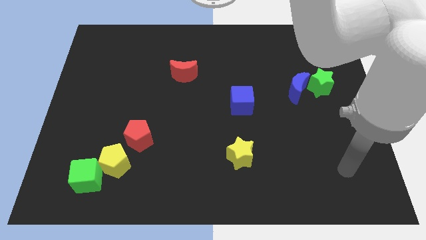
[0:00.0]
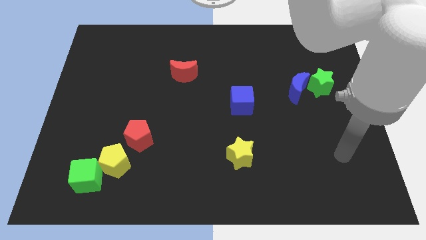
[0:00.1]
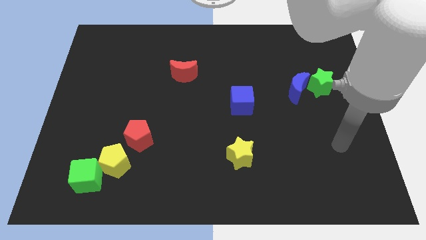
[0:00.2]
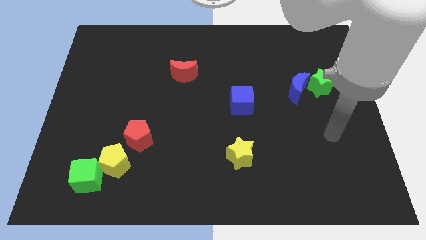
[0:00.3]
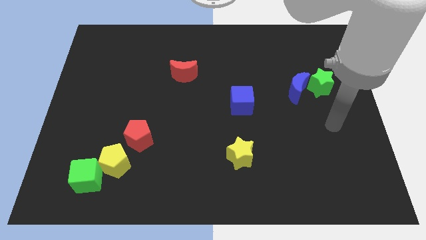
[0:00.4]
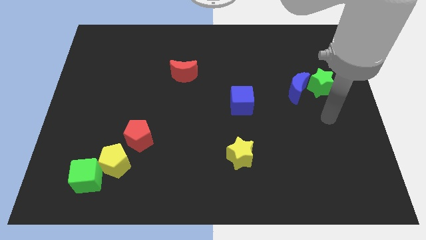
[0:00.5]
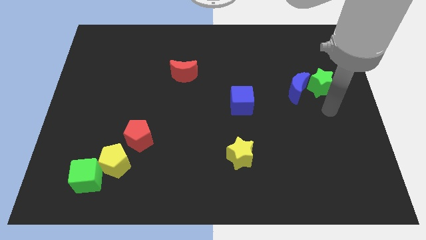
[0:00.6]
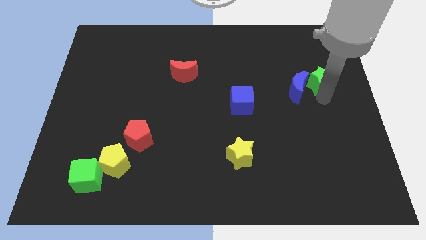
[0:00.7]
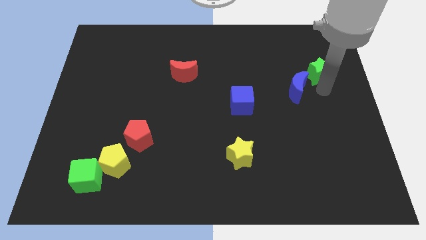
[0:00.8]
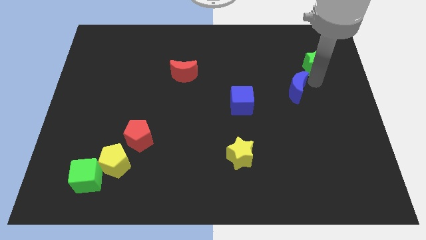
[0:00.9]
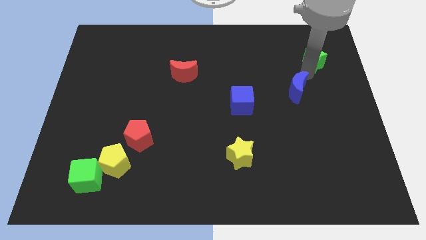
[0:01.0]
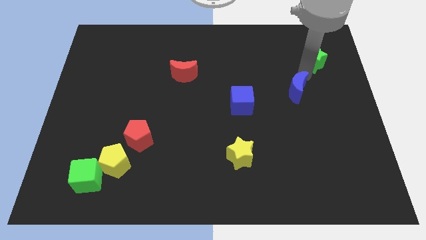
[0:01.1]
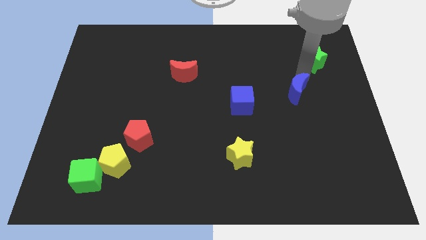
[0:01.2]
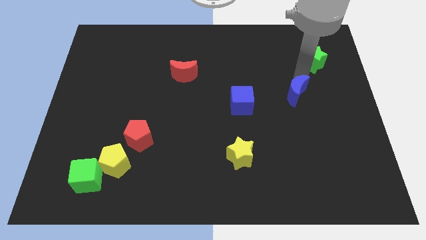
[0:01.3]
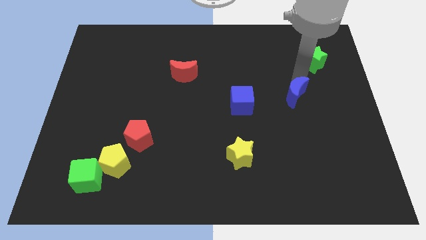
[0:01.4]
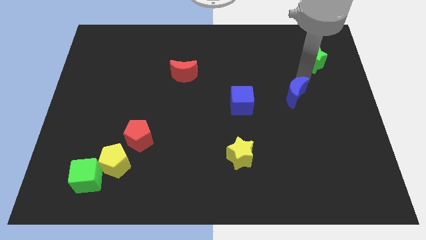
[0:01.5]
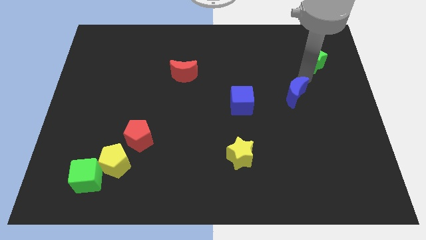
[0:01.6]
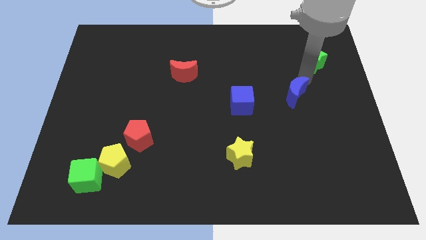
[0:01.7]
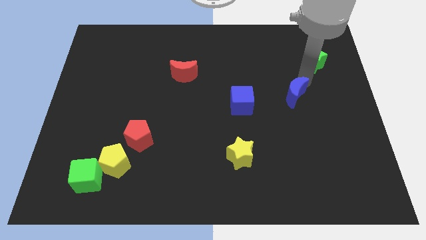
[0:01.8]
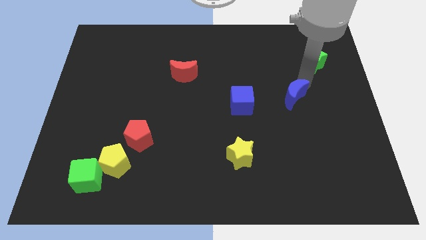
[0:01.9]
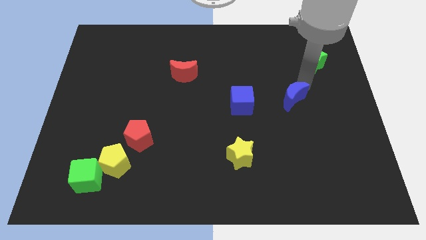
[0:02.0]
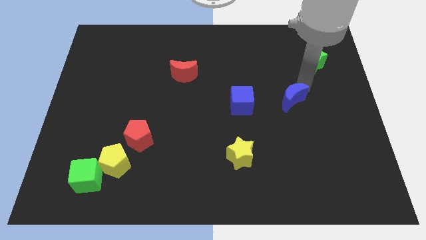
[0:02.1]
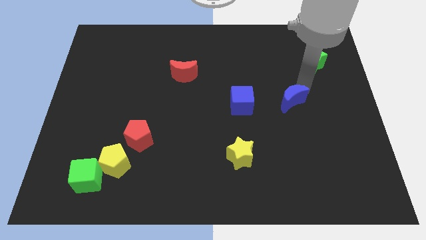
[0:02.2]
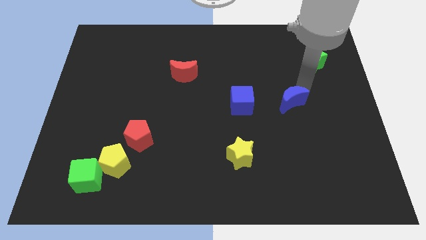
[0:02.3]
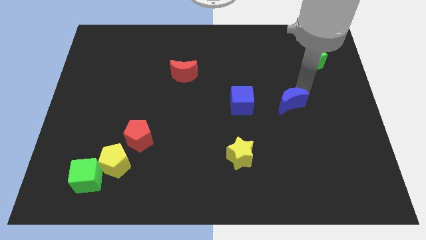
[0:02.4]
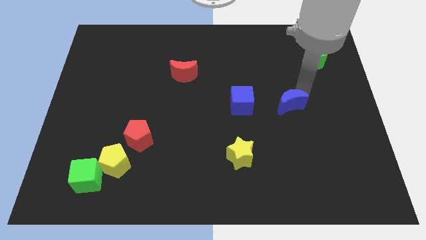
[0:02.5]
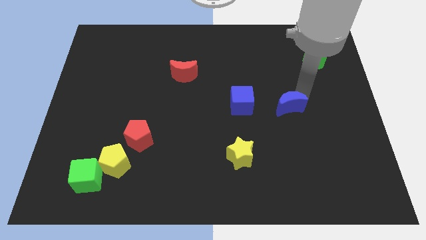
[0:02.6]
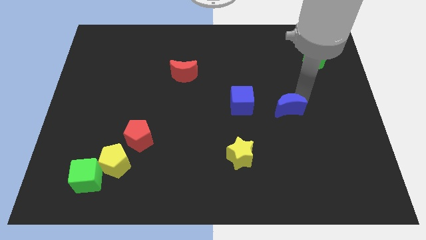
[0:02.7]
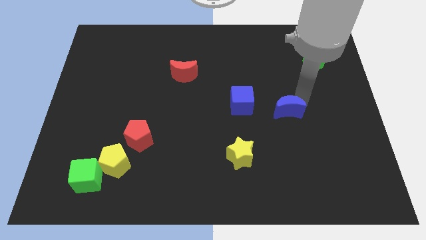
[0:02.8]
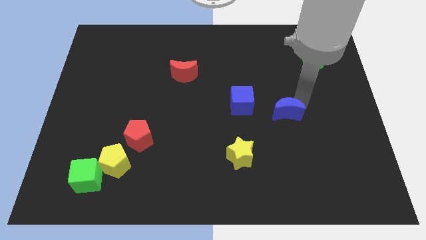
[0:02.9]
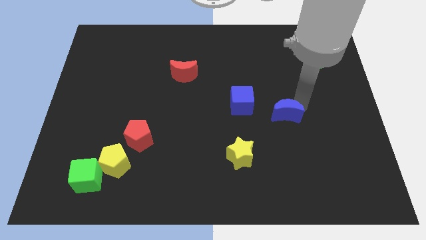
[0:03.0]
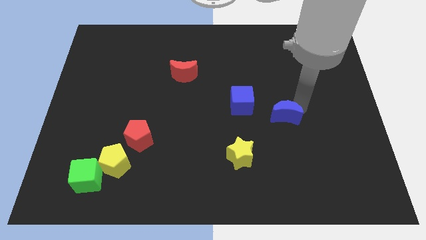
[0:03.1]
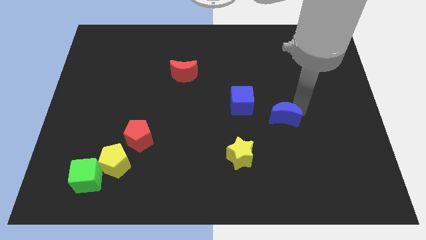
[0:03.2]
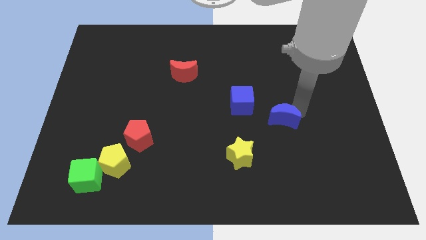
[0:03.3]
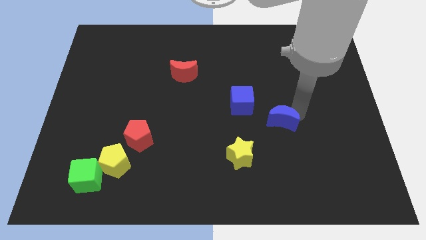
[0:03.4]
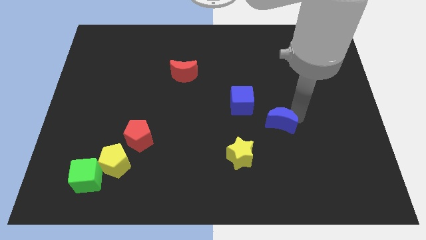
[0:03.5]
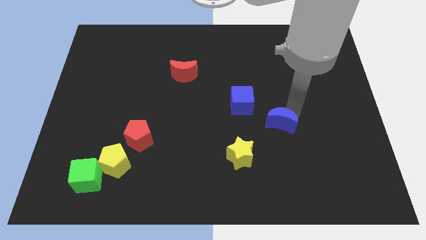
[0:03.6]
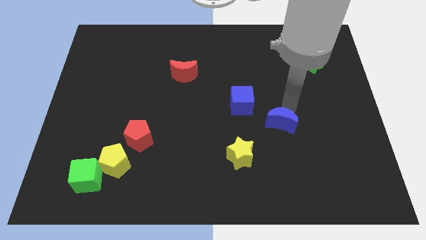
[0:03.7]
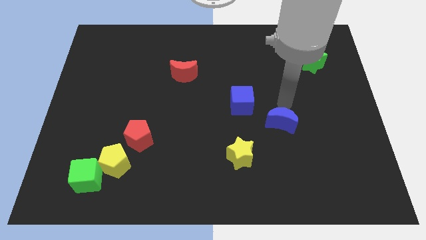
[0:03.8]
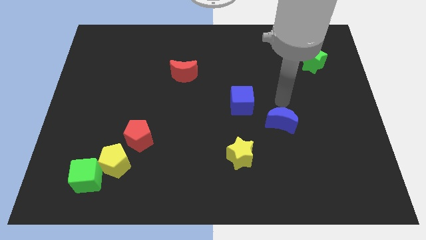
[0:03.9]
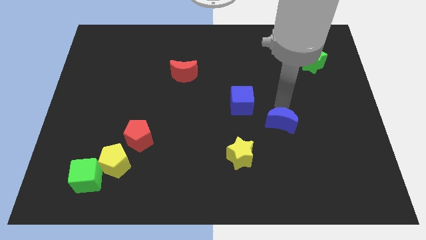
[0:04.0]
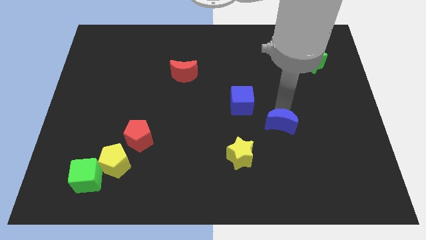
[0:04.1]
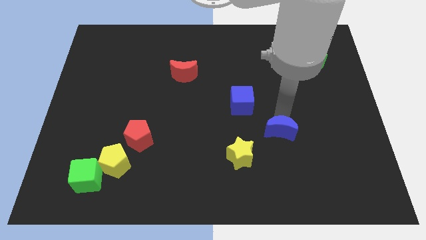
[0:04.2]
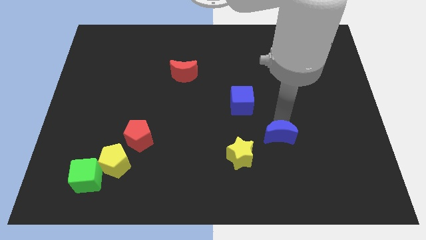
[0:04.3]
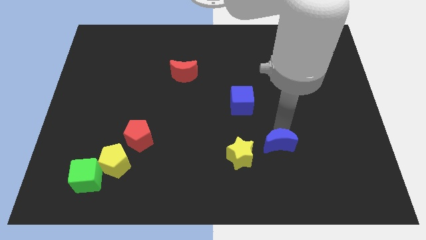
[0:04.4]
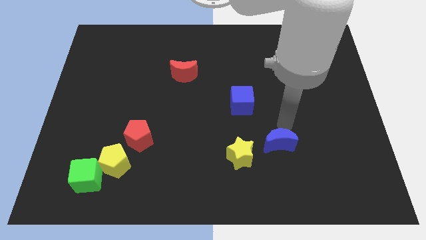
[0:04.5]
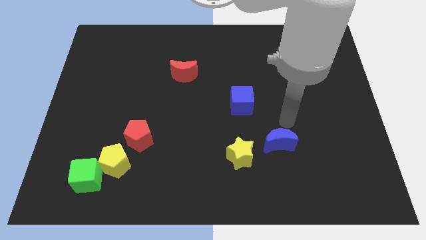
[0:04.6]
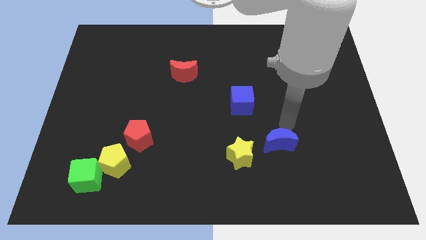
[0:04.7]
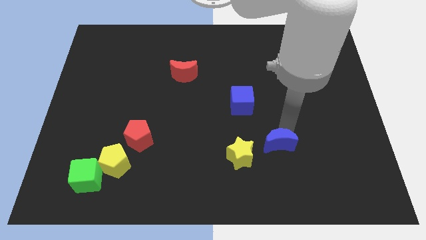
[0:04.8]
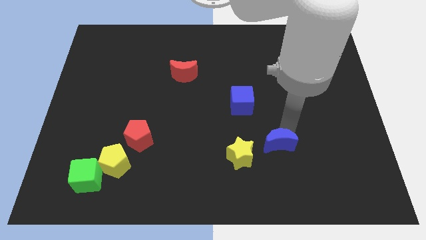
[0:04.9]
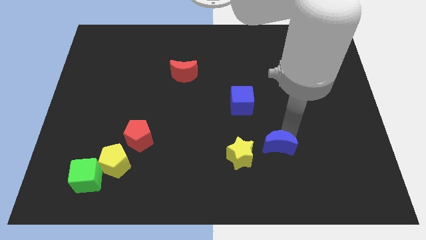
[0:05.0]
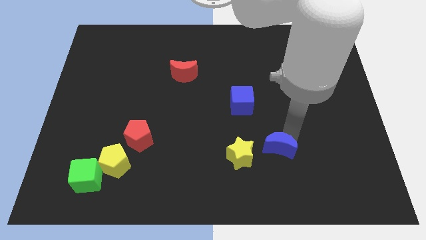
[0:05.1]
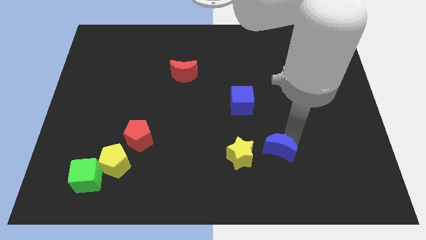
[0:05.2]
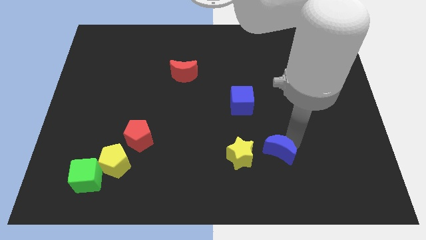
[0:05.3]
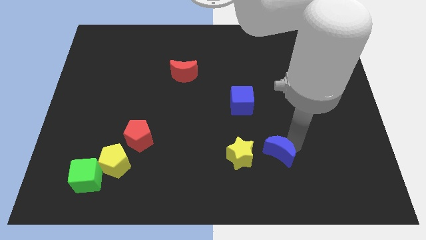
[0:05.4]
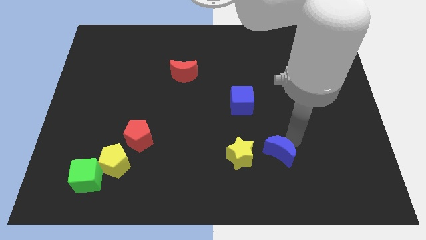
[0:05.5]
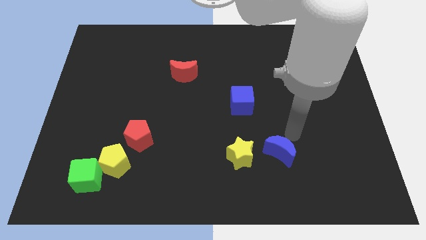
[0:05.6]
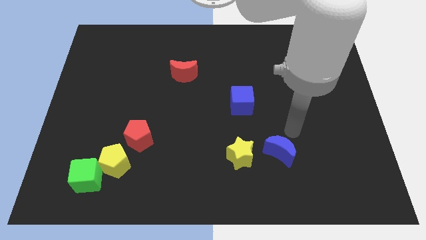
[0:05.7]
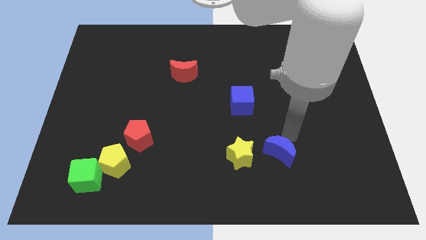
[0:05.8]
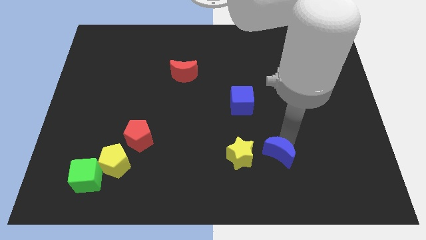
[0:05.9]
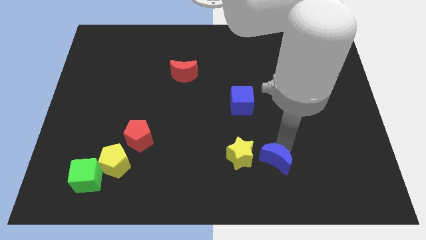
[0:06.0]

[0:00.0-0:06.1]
push the blue moon to the bottom right of the yellow star

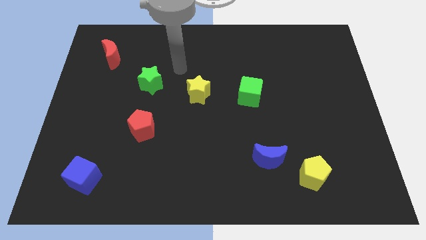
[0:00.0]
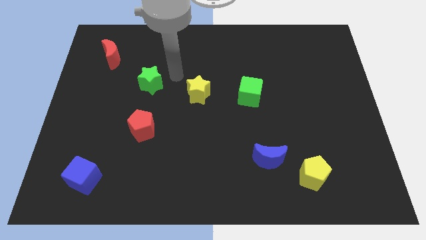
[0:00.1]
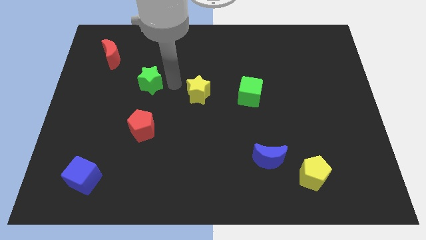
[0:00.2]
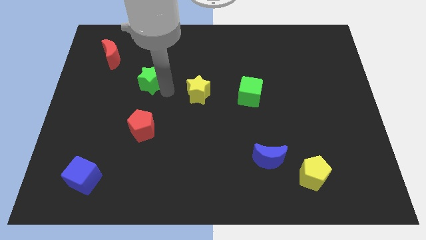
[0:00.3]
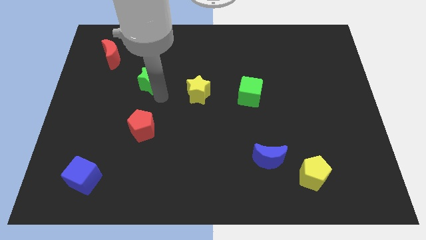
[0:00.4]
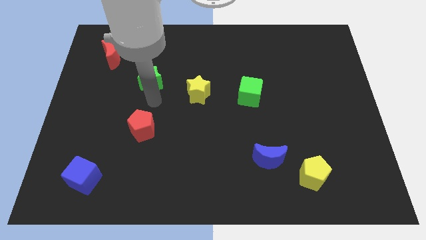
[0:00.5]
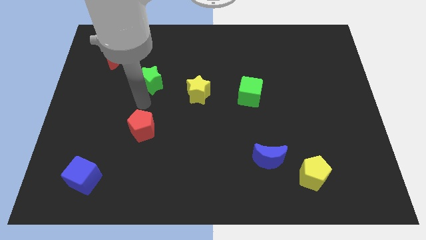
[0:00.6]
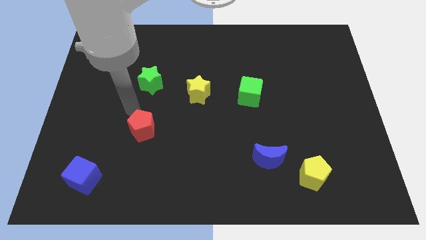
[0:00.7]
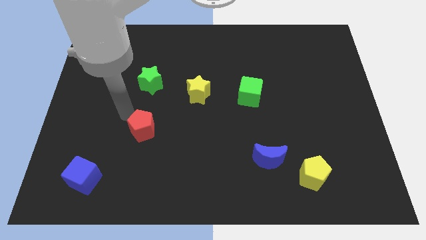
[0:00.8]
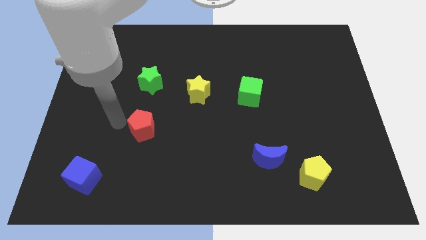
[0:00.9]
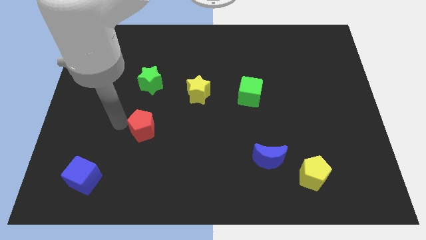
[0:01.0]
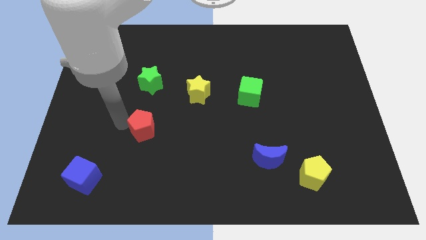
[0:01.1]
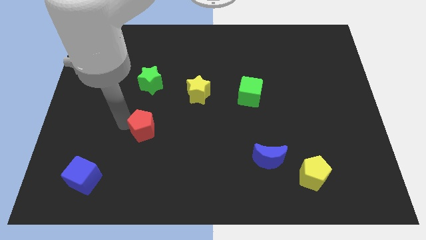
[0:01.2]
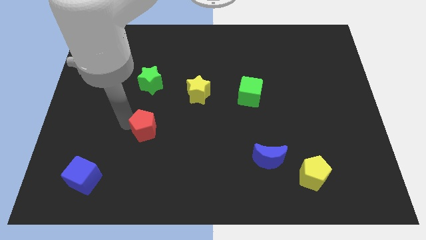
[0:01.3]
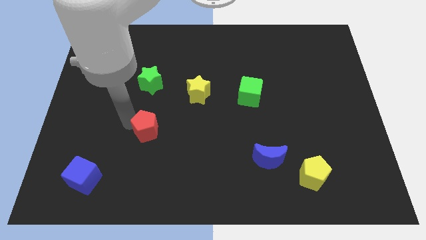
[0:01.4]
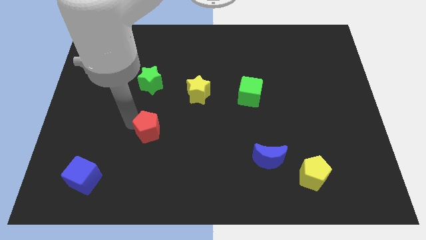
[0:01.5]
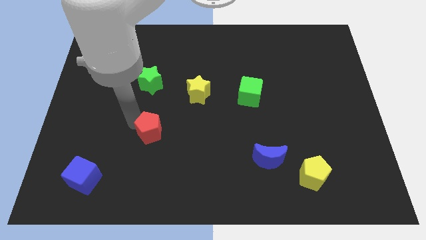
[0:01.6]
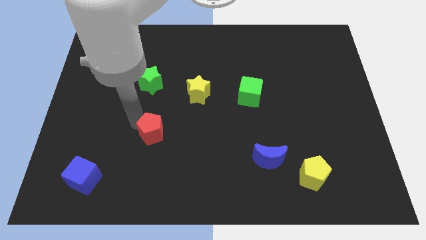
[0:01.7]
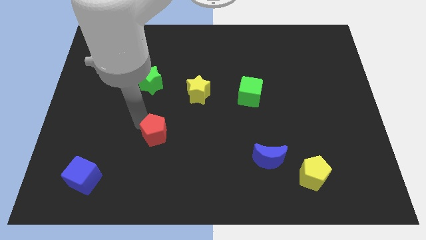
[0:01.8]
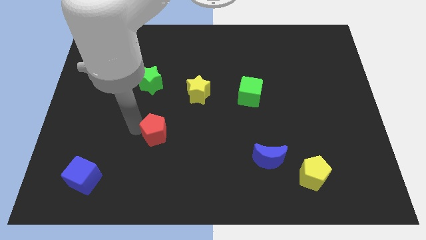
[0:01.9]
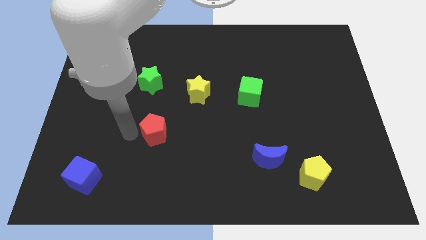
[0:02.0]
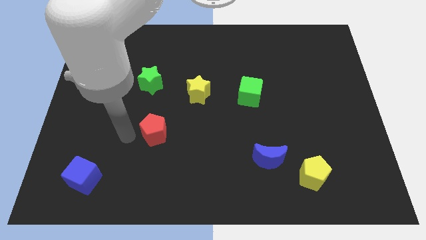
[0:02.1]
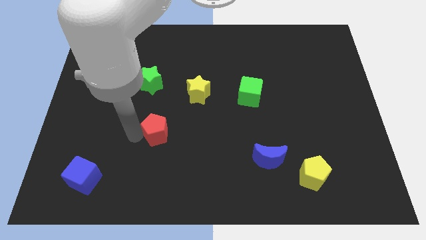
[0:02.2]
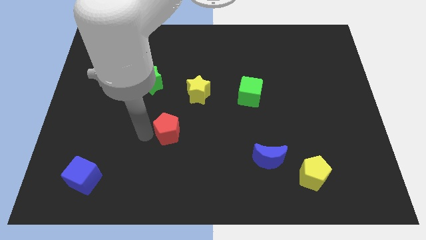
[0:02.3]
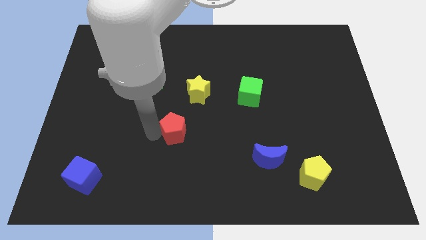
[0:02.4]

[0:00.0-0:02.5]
push the red pentagon below the yellow star
